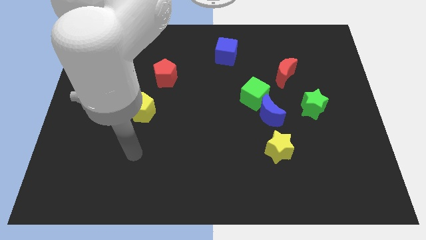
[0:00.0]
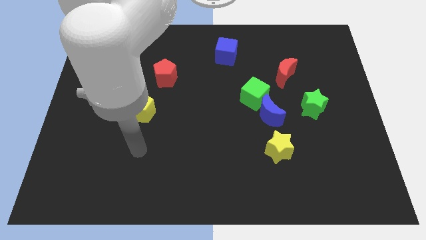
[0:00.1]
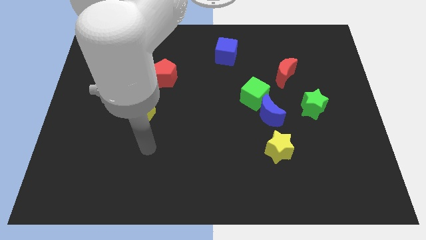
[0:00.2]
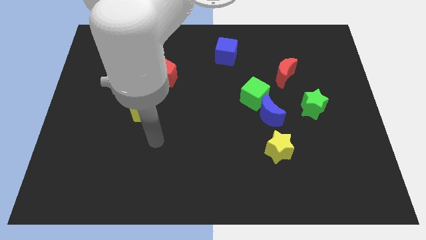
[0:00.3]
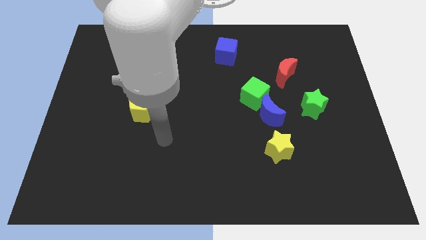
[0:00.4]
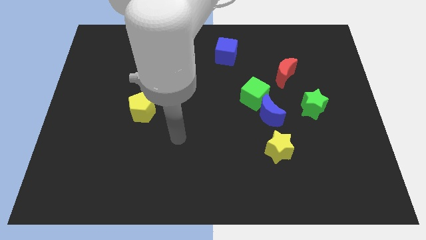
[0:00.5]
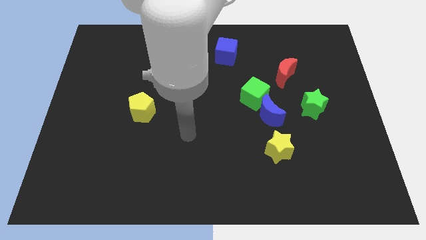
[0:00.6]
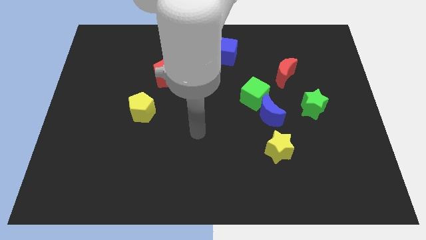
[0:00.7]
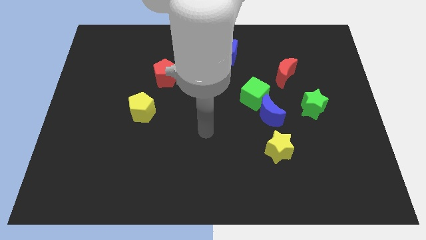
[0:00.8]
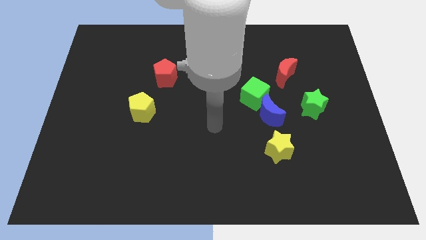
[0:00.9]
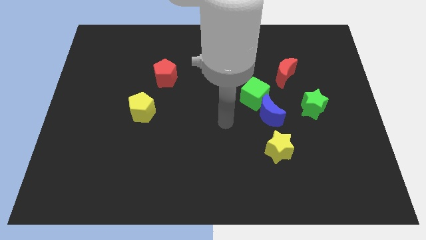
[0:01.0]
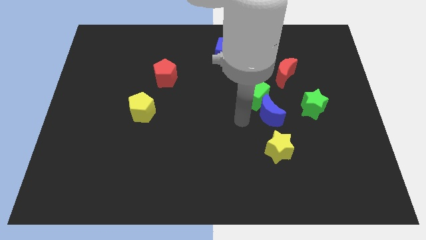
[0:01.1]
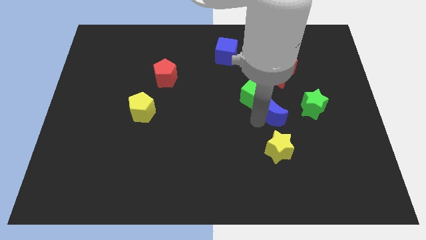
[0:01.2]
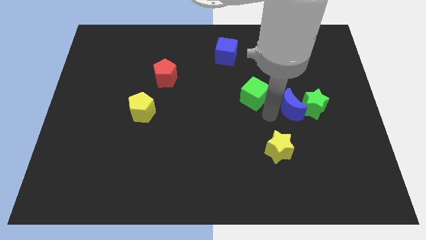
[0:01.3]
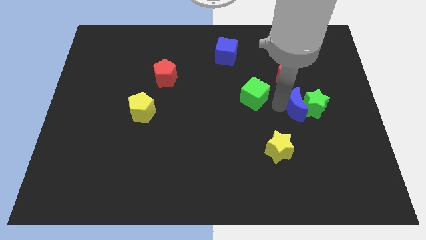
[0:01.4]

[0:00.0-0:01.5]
separate the green cube from the blue moon

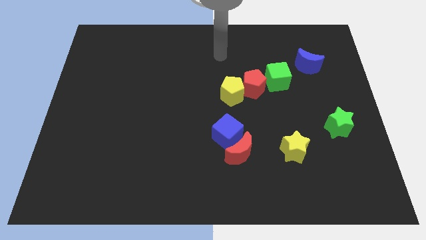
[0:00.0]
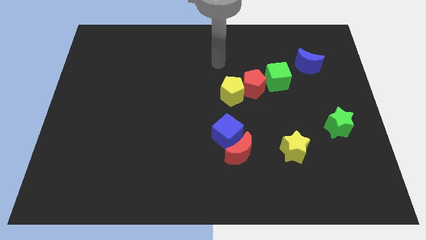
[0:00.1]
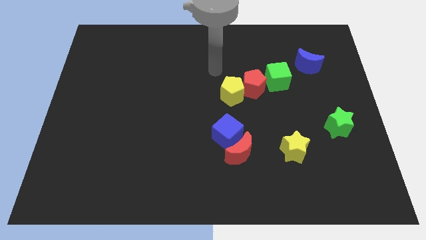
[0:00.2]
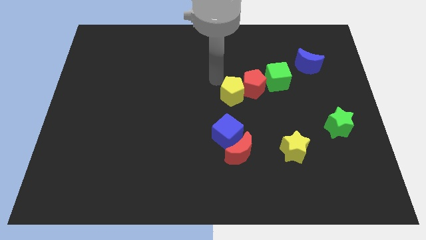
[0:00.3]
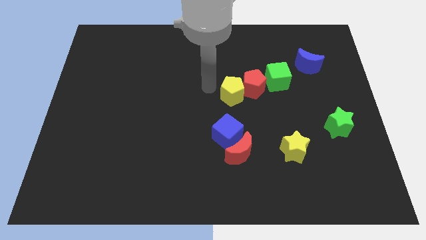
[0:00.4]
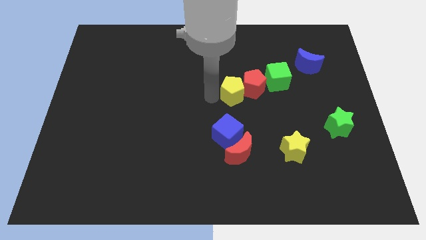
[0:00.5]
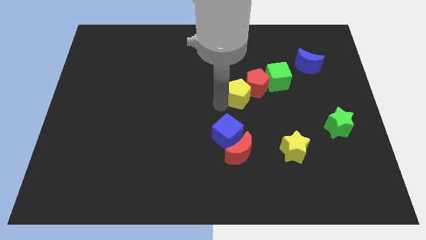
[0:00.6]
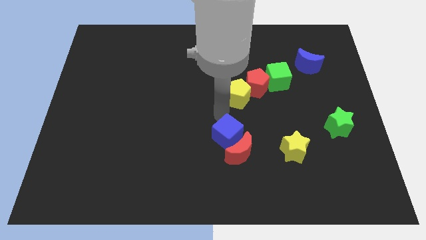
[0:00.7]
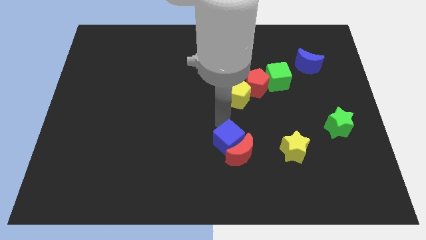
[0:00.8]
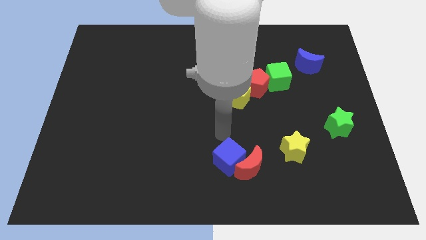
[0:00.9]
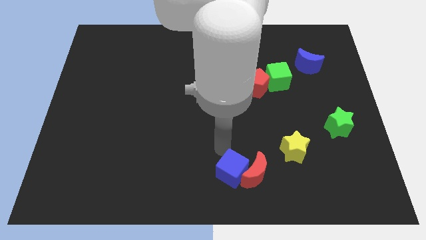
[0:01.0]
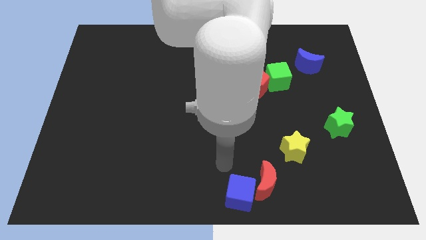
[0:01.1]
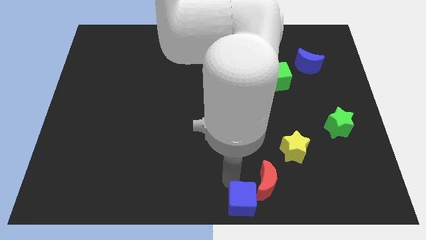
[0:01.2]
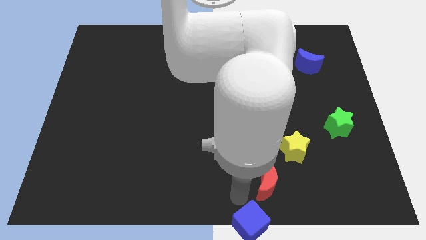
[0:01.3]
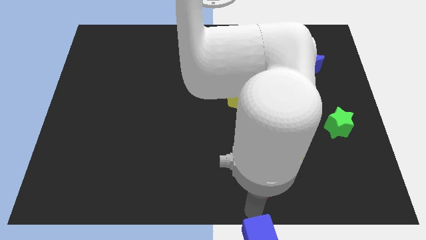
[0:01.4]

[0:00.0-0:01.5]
separate the red moon from the blue cube

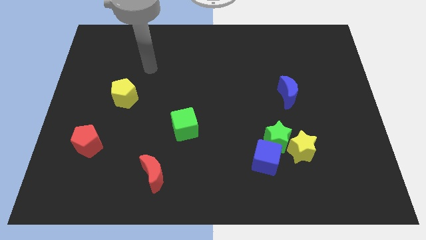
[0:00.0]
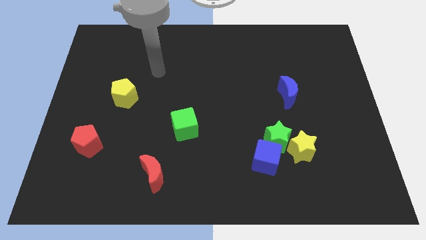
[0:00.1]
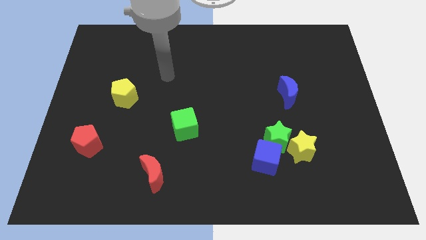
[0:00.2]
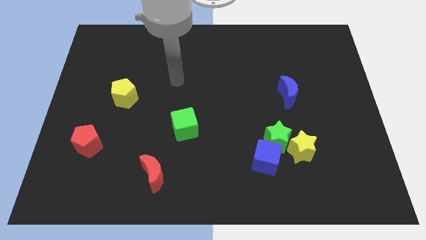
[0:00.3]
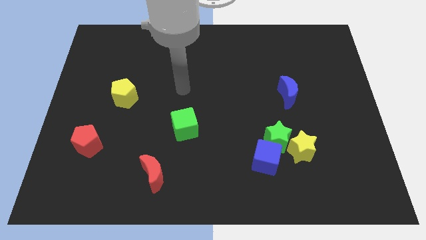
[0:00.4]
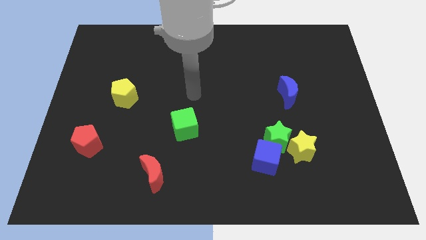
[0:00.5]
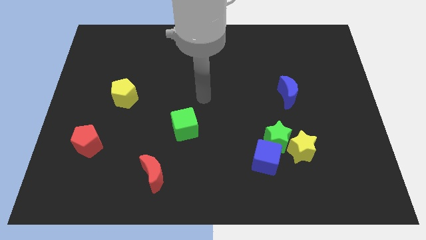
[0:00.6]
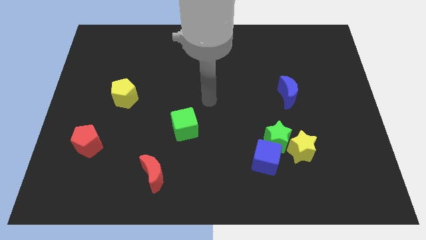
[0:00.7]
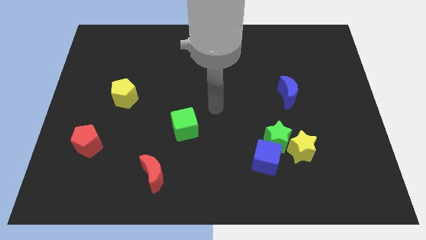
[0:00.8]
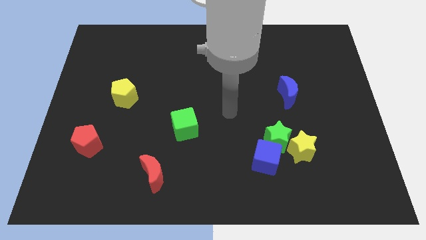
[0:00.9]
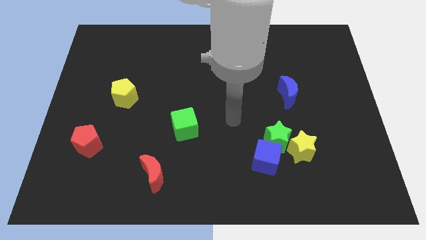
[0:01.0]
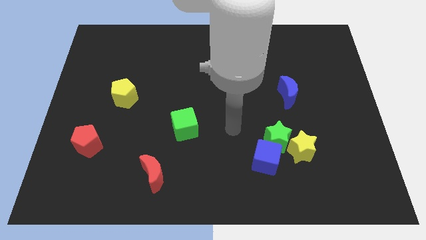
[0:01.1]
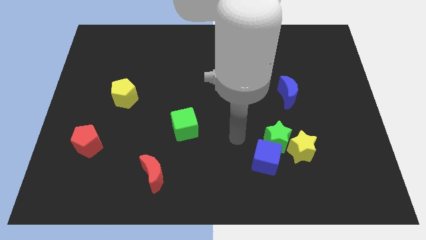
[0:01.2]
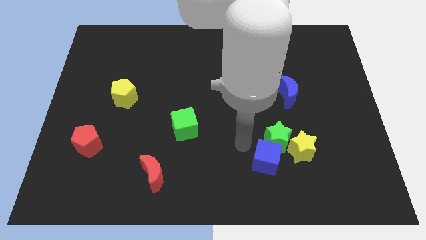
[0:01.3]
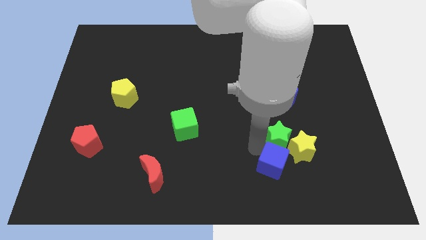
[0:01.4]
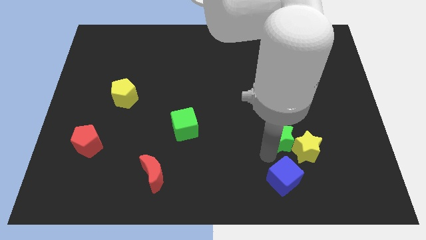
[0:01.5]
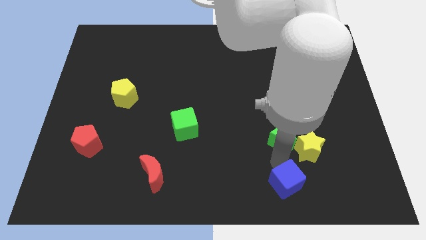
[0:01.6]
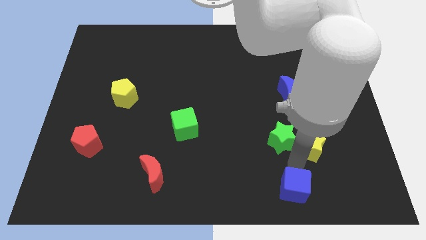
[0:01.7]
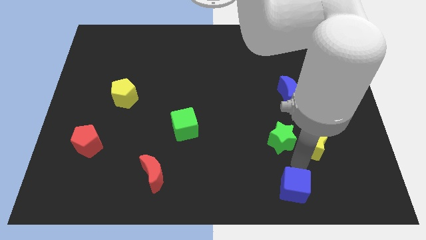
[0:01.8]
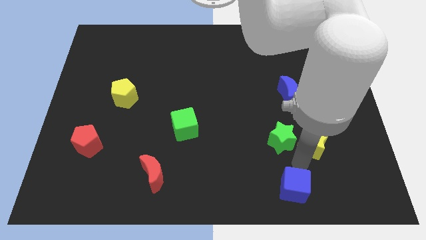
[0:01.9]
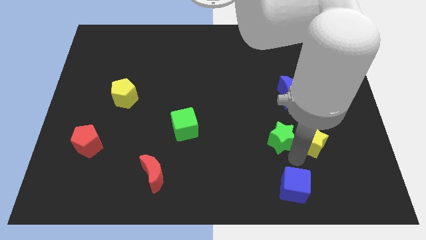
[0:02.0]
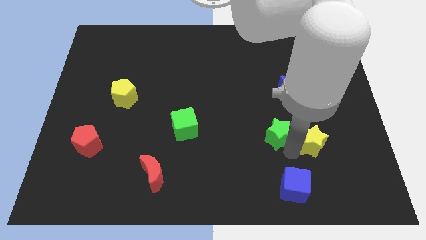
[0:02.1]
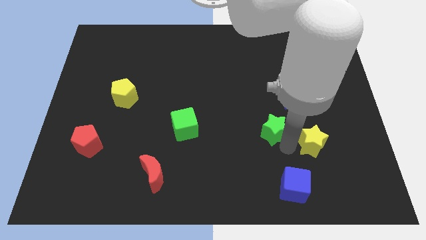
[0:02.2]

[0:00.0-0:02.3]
separate the green star from the yellow star and blue cube

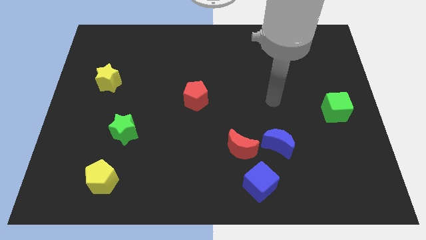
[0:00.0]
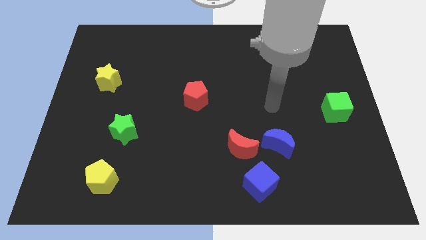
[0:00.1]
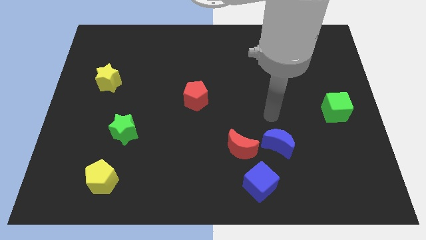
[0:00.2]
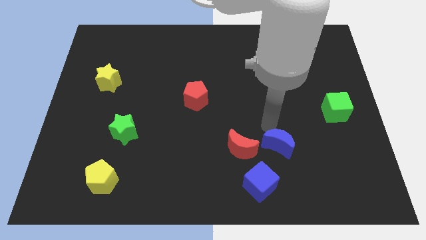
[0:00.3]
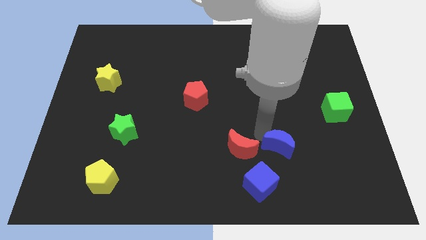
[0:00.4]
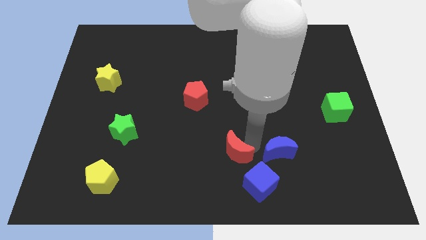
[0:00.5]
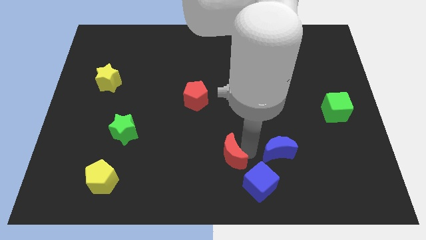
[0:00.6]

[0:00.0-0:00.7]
pull the blue moon apart from the red moon

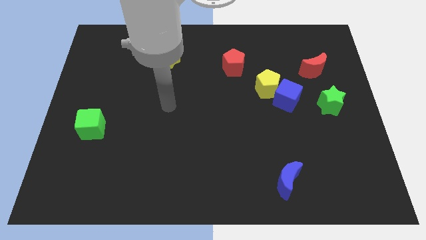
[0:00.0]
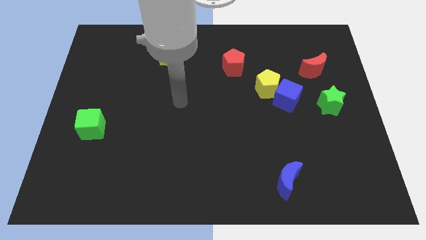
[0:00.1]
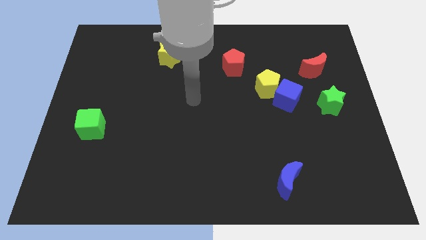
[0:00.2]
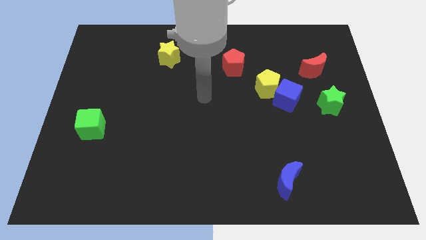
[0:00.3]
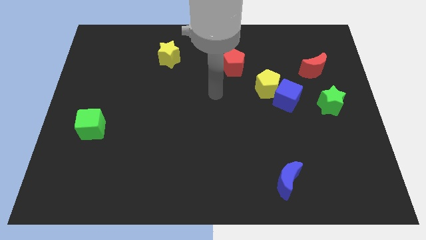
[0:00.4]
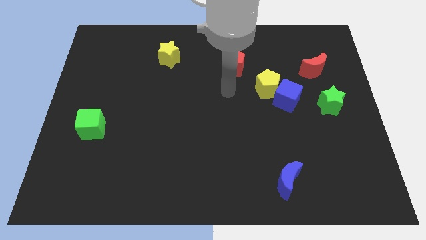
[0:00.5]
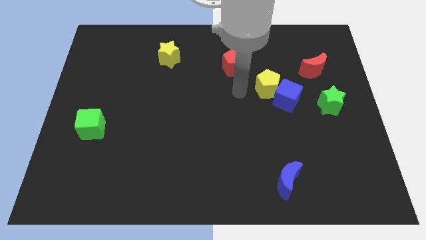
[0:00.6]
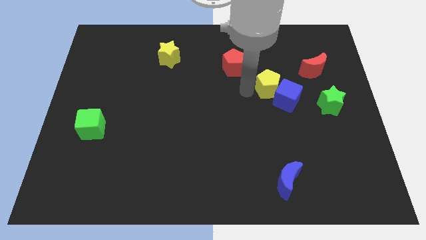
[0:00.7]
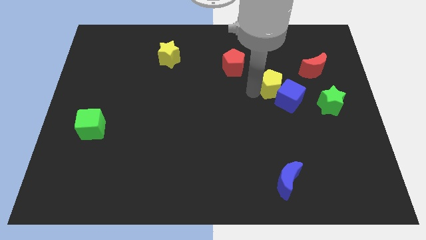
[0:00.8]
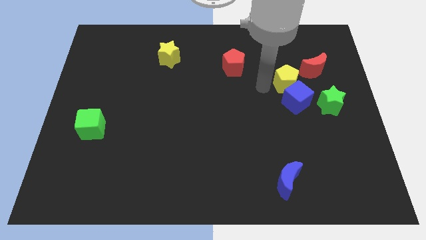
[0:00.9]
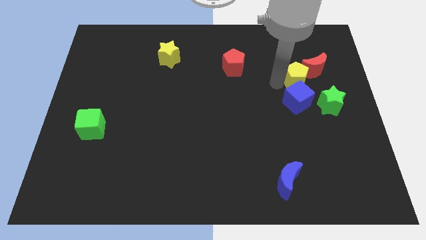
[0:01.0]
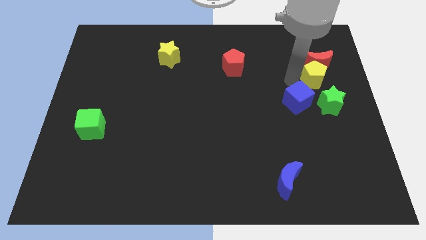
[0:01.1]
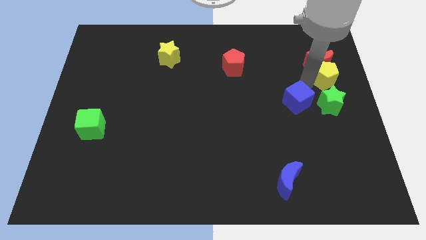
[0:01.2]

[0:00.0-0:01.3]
pull the blue cube apart from the yellow pentagon

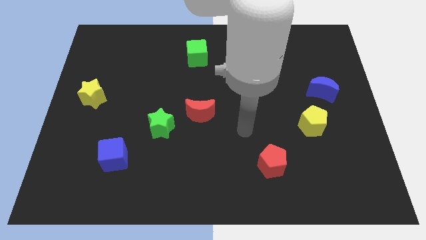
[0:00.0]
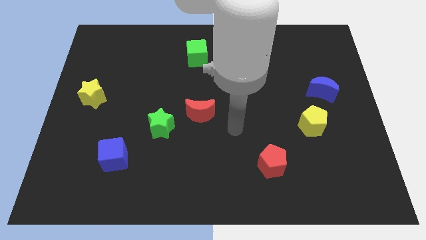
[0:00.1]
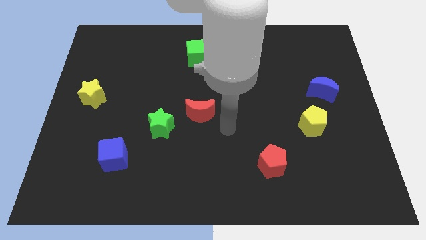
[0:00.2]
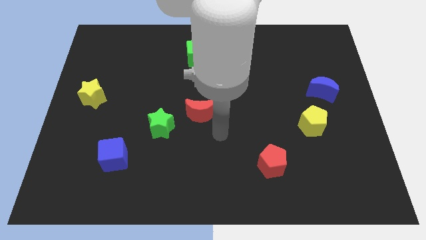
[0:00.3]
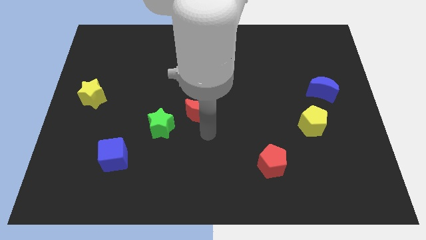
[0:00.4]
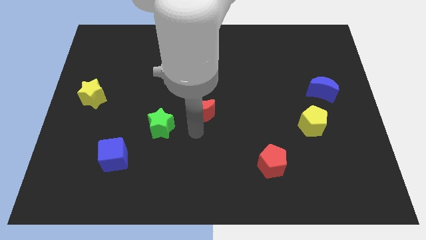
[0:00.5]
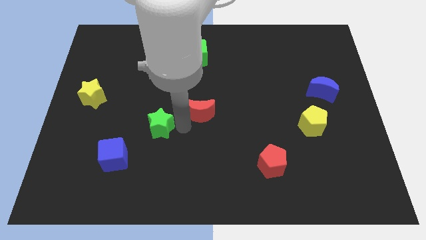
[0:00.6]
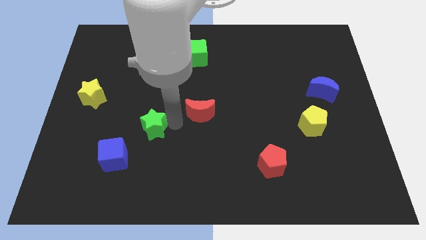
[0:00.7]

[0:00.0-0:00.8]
separate the red moon from the green star

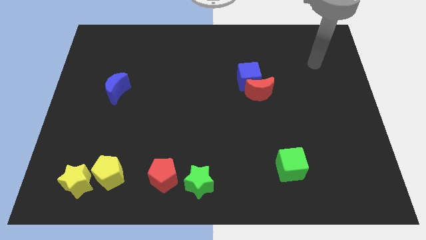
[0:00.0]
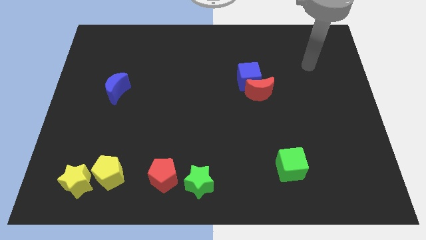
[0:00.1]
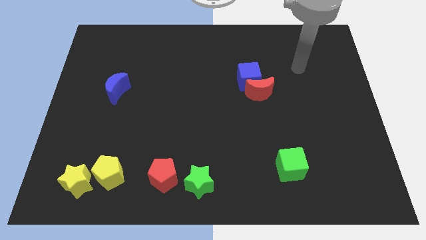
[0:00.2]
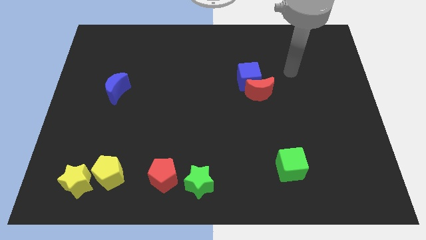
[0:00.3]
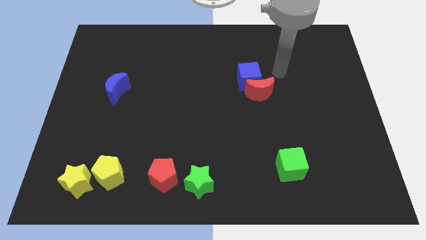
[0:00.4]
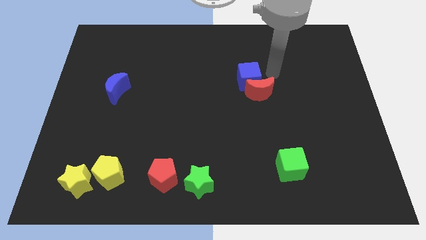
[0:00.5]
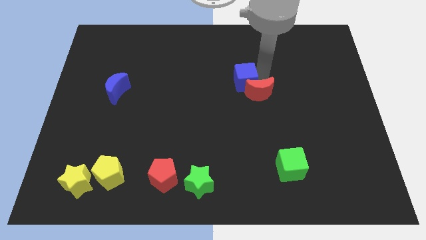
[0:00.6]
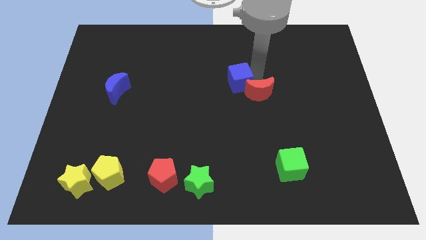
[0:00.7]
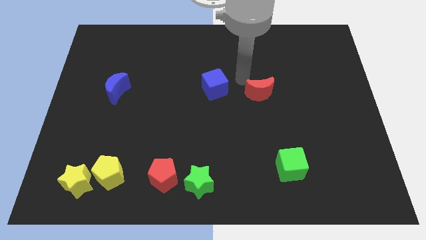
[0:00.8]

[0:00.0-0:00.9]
move the red moon away from the blue cube

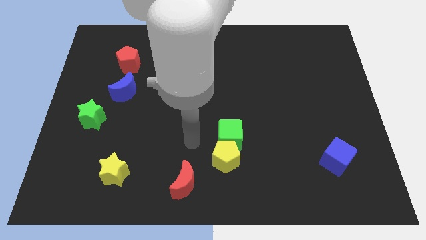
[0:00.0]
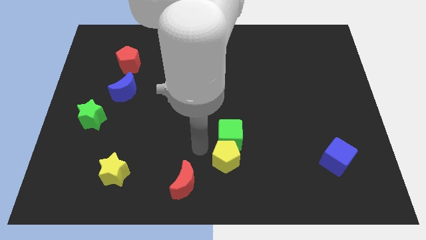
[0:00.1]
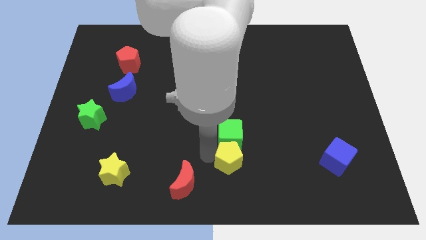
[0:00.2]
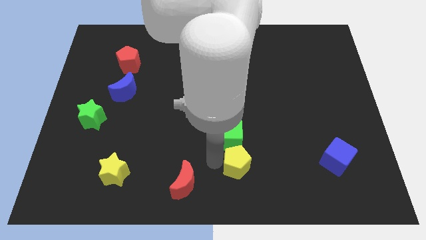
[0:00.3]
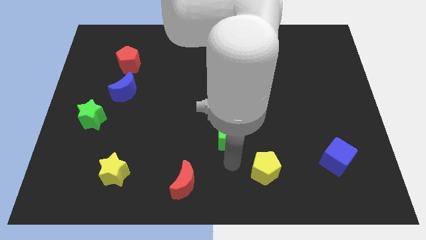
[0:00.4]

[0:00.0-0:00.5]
separate the green cube from the yellow pentagon
